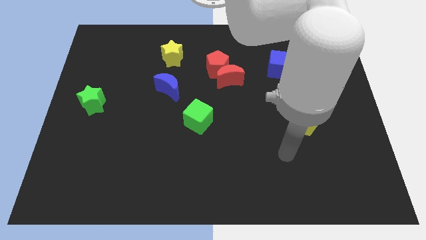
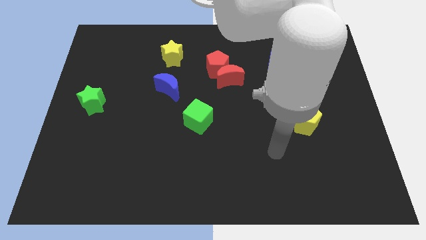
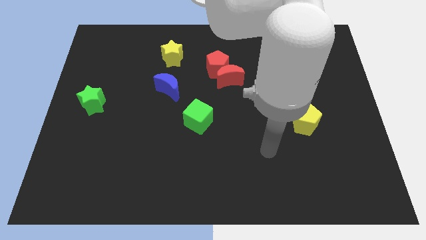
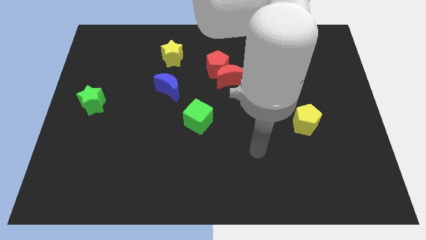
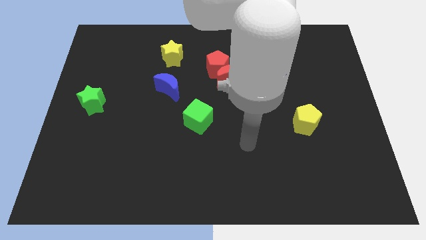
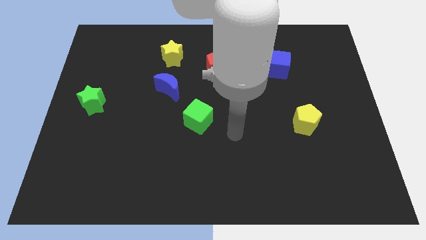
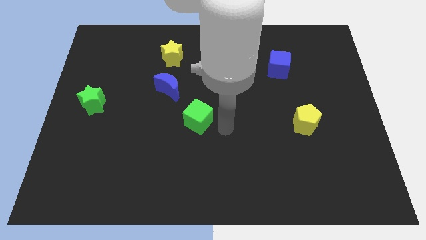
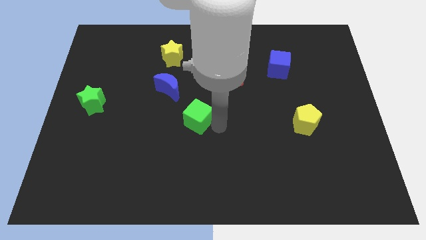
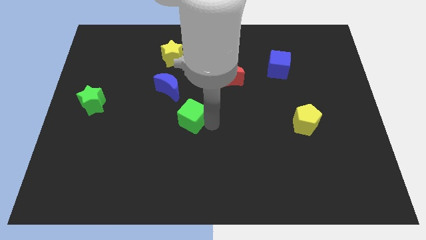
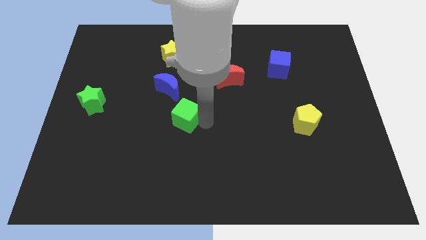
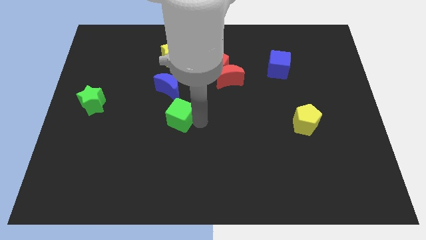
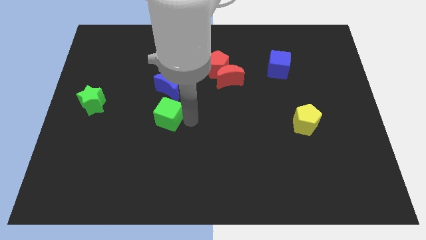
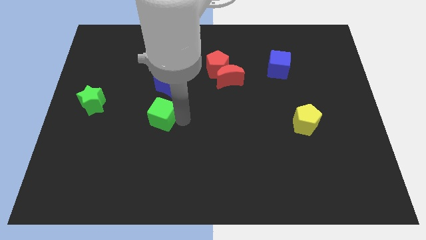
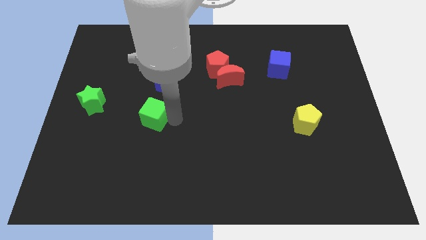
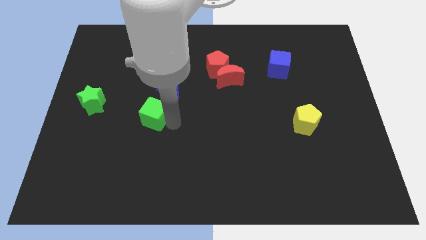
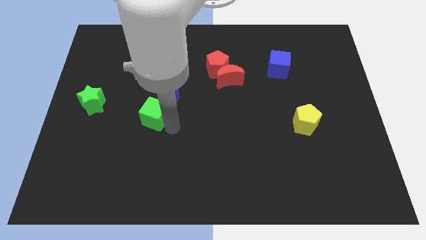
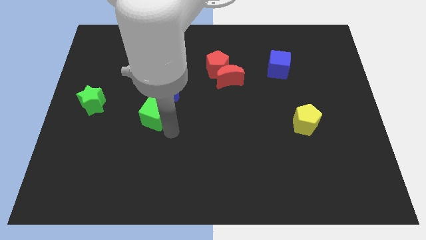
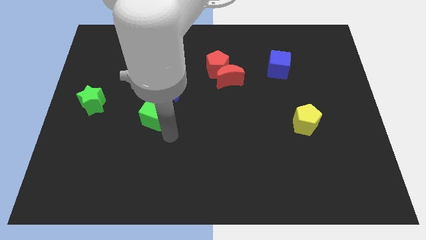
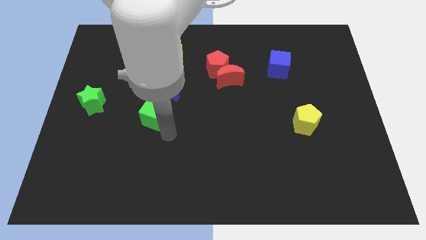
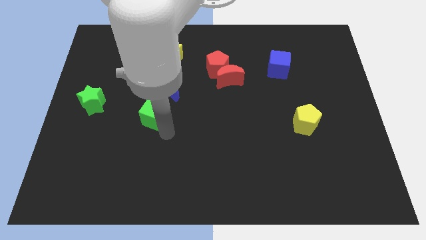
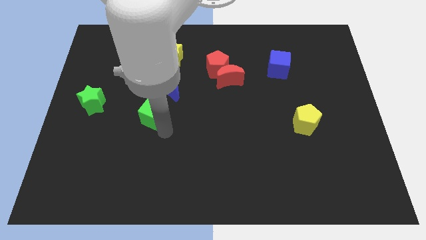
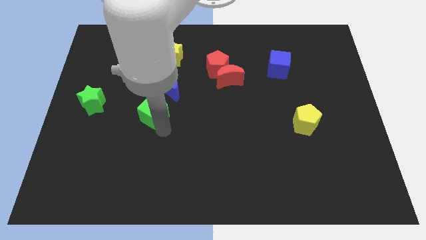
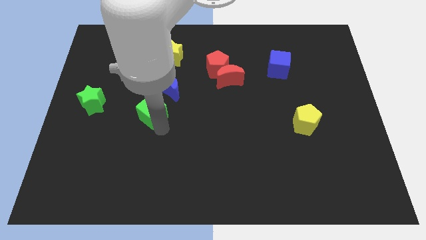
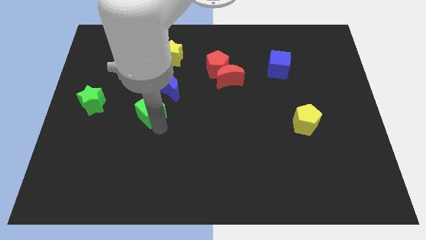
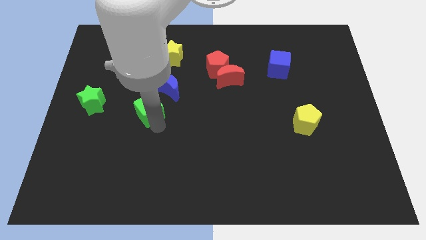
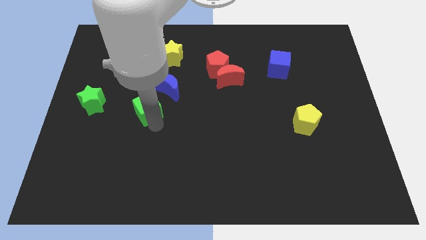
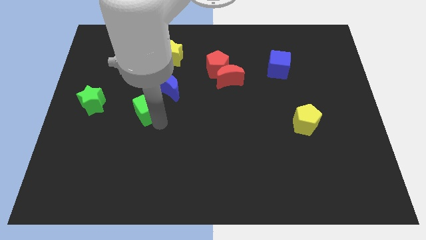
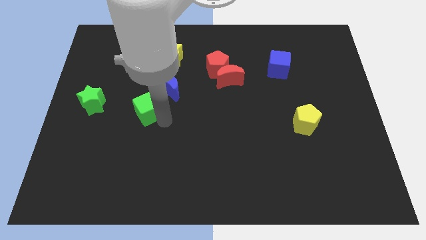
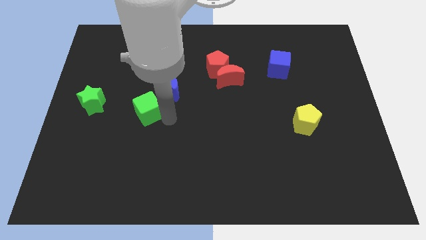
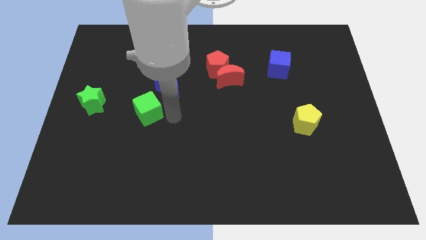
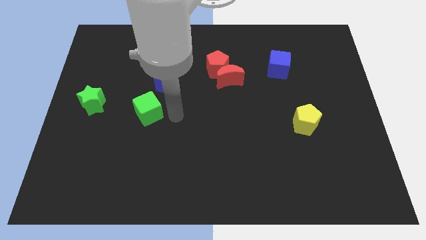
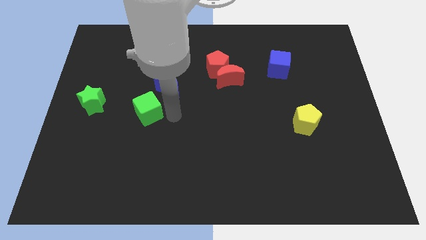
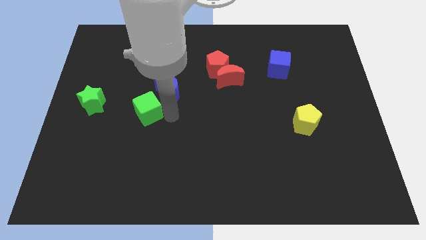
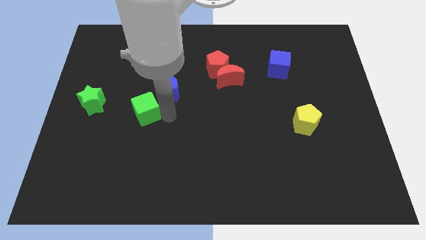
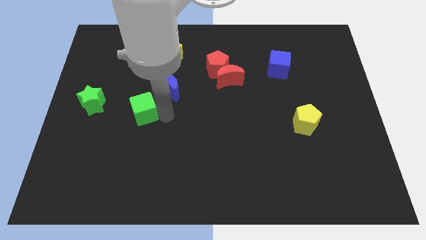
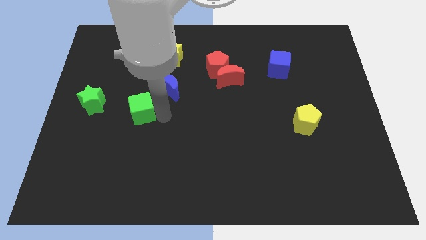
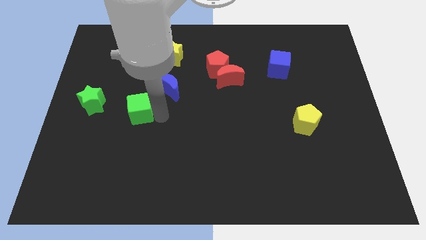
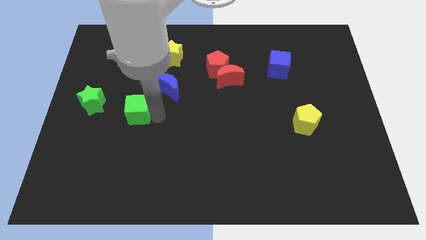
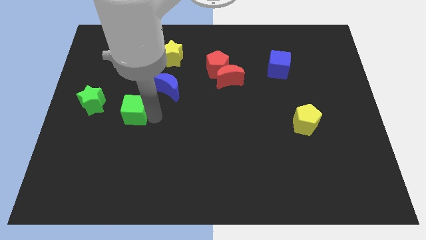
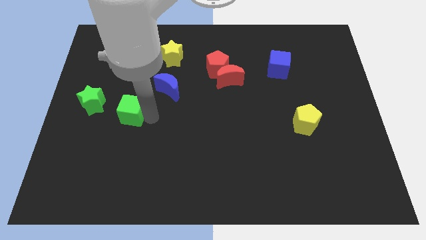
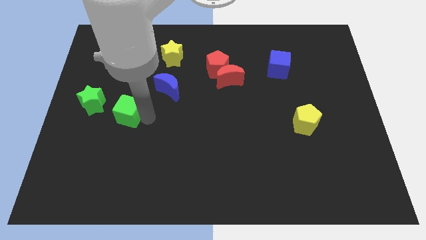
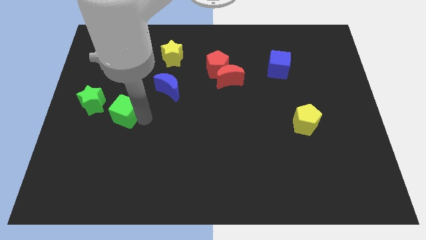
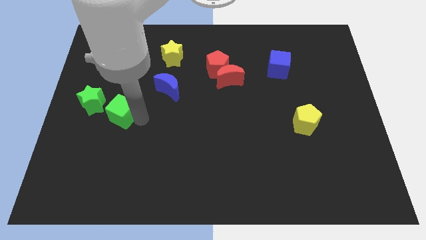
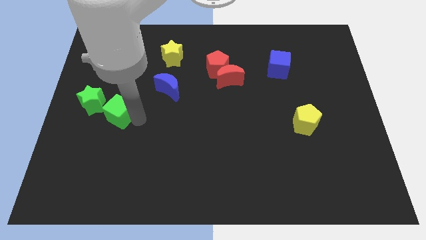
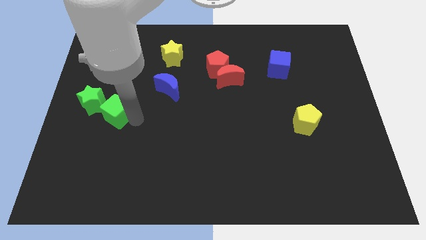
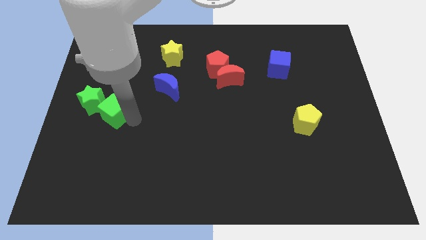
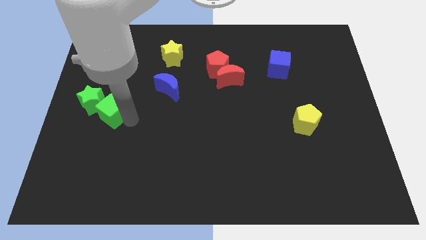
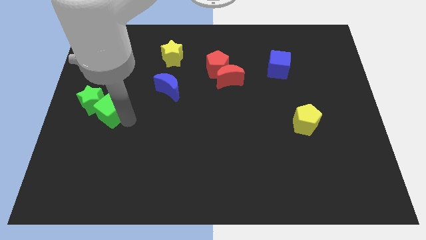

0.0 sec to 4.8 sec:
push the green cube to the green star

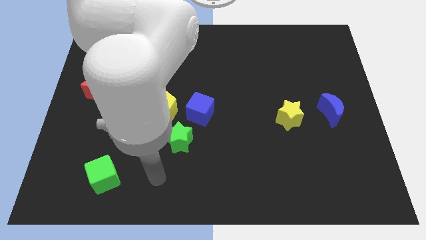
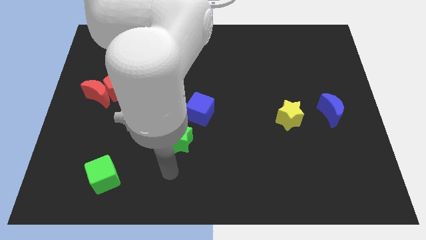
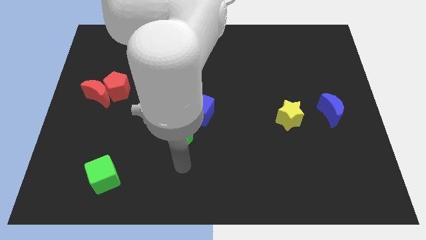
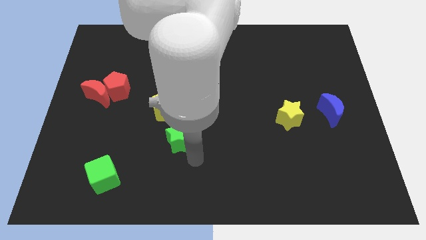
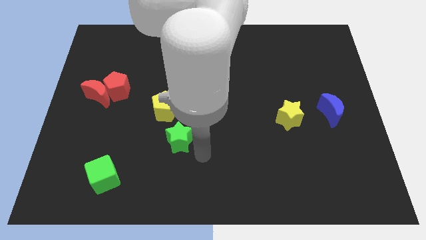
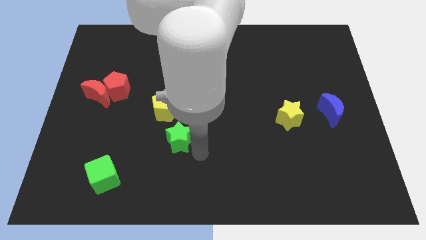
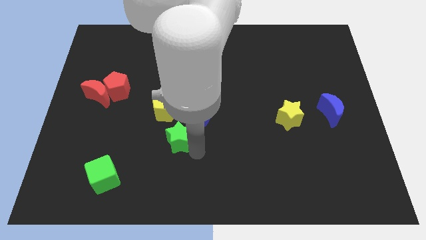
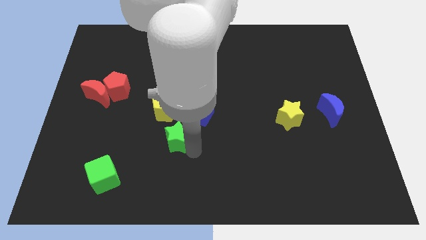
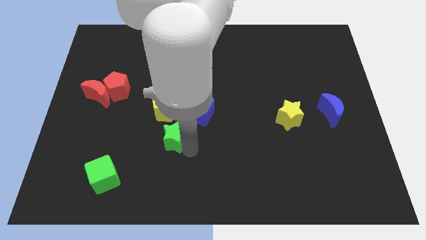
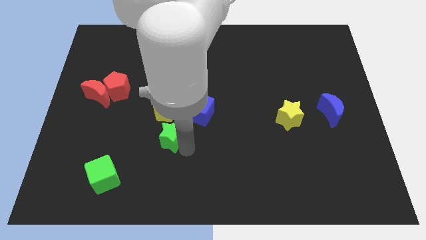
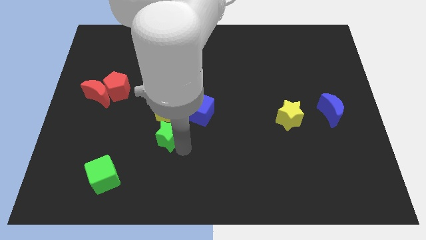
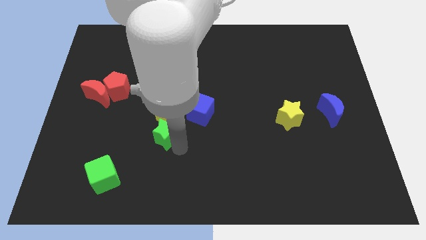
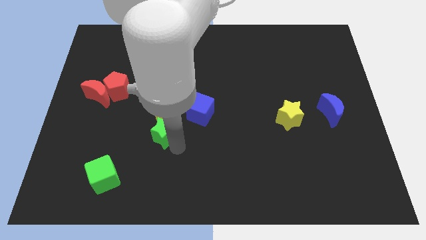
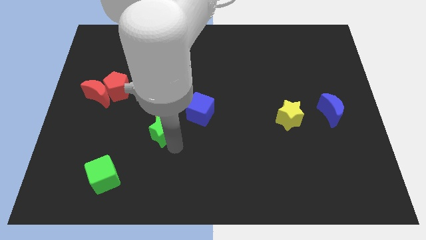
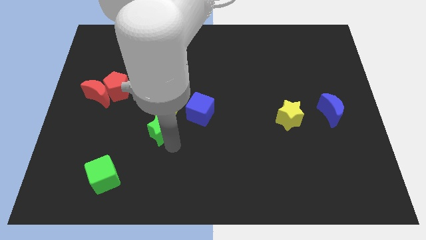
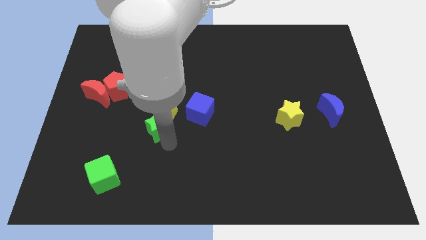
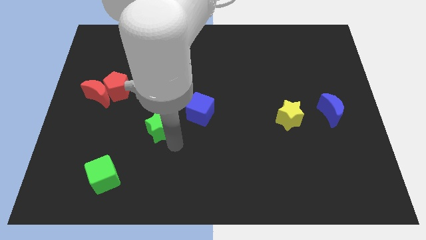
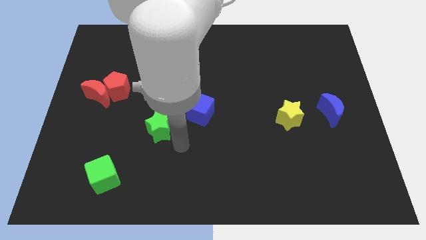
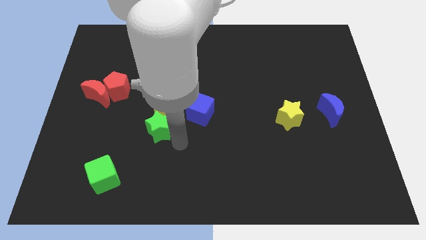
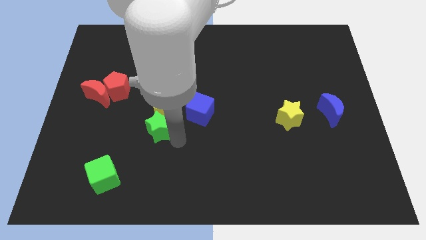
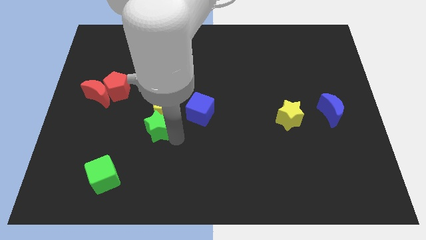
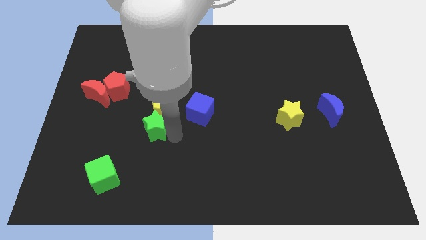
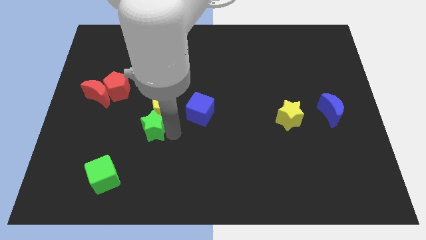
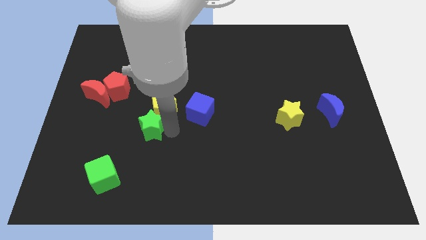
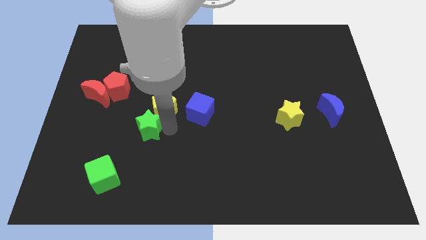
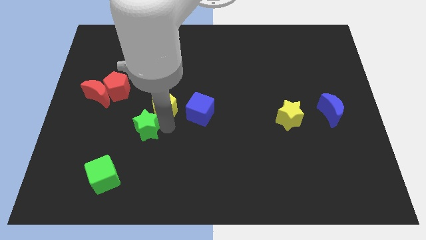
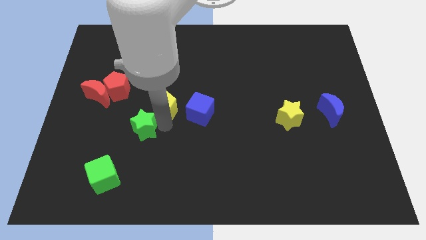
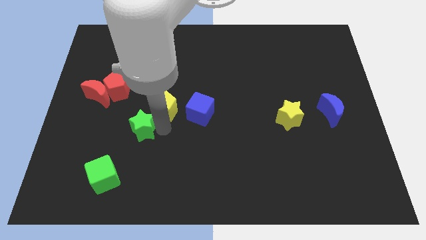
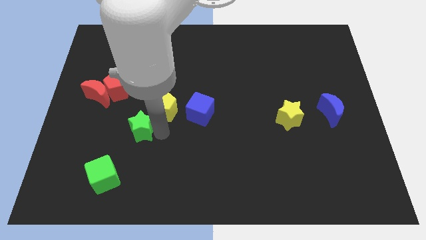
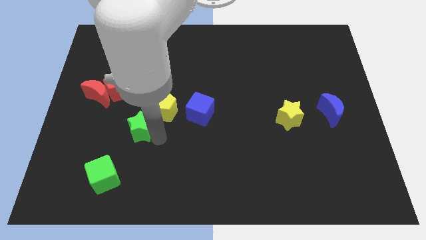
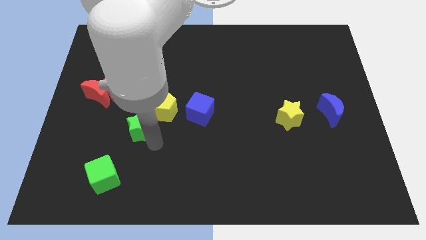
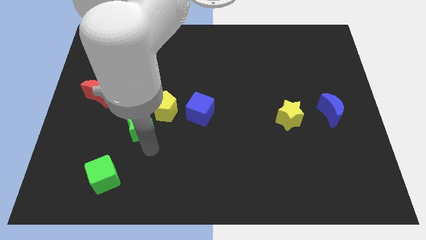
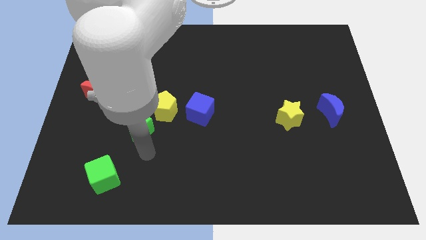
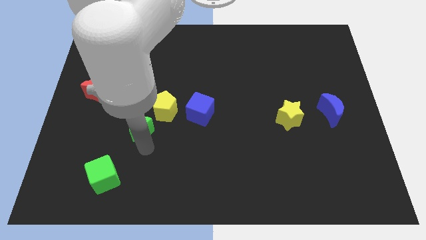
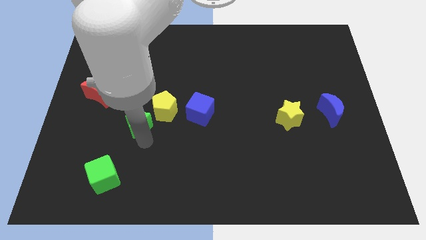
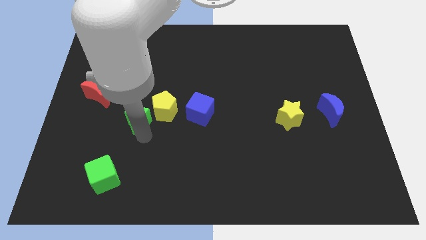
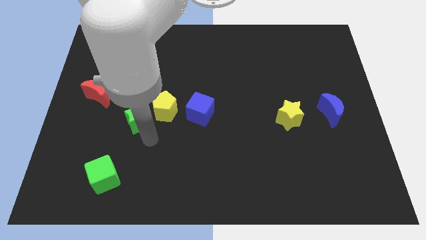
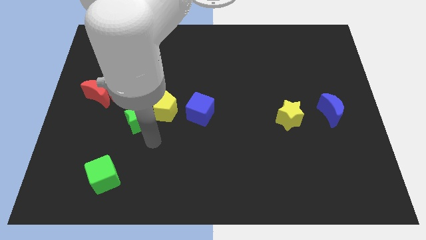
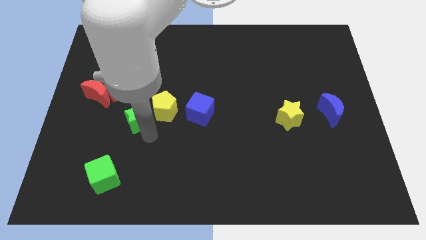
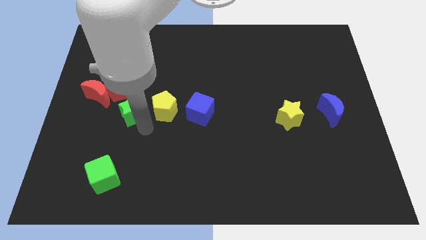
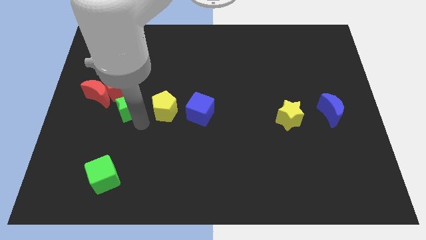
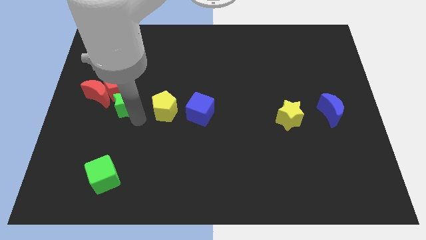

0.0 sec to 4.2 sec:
put the green star next to the red pentagon
